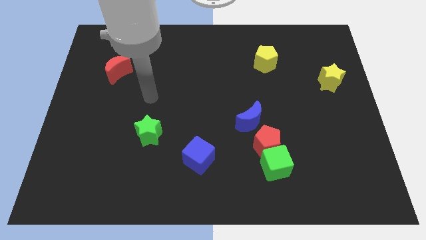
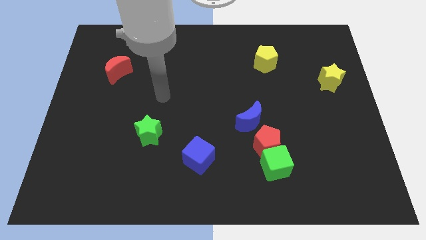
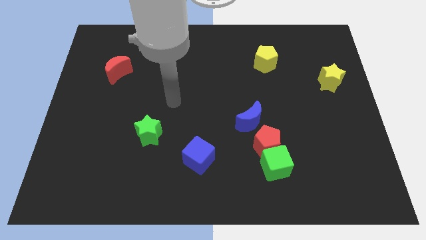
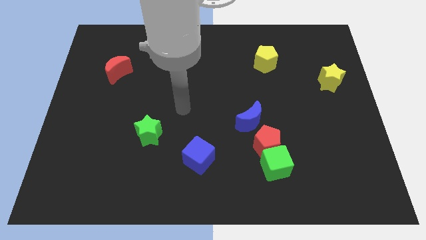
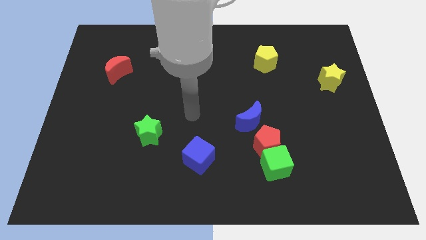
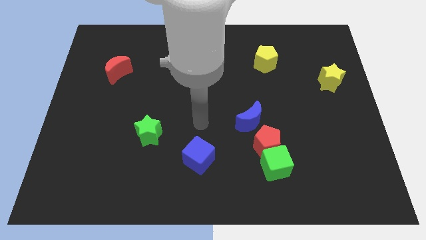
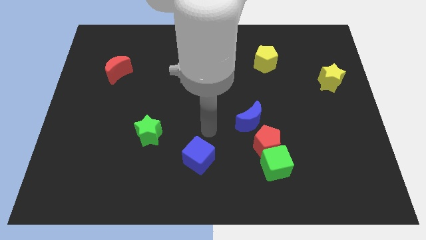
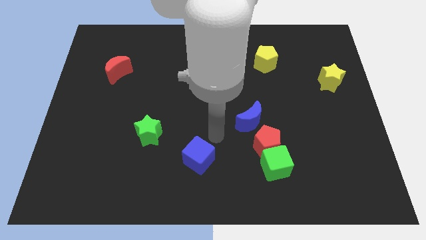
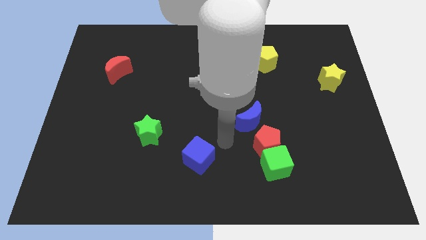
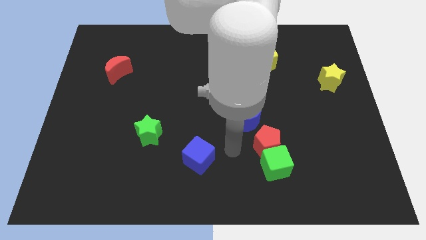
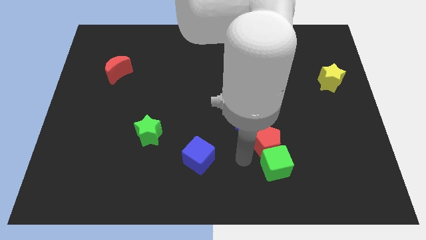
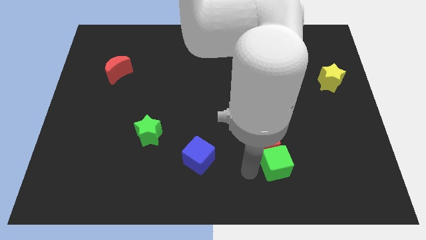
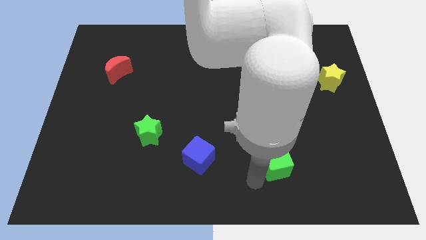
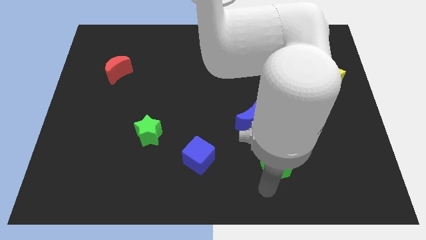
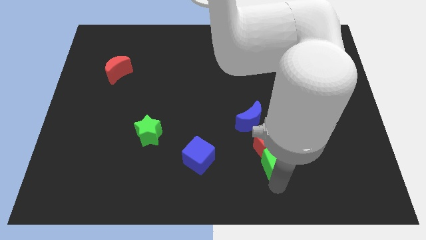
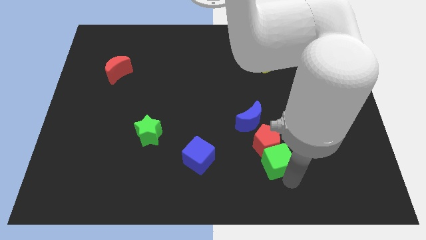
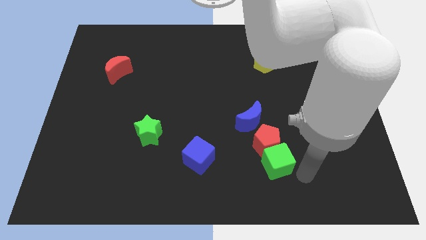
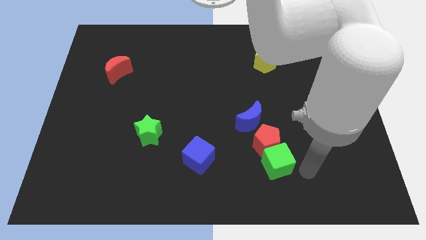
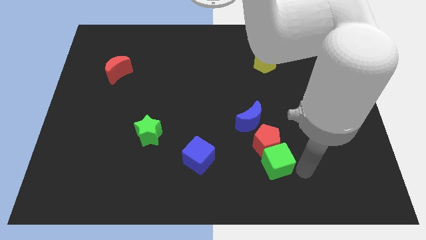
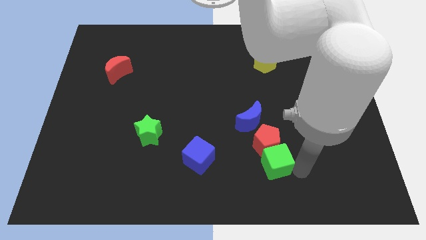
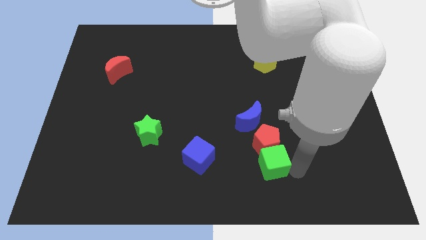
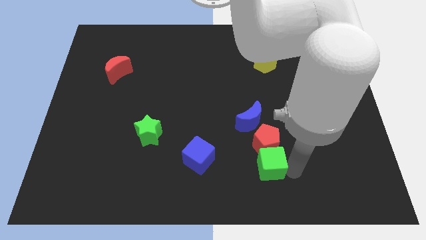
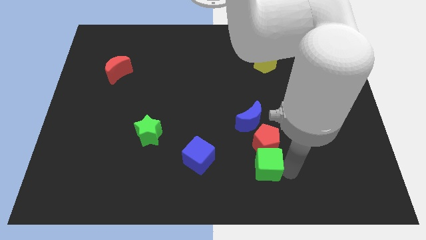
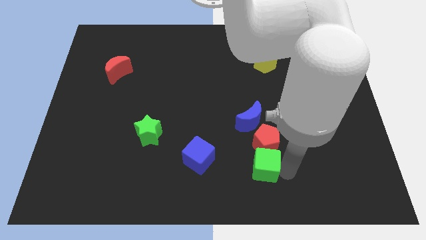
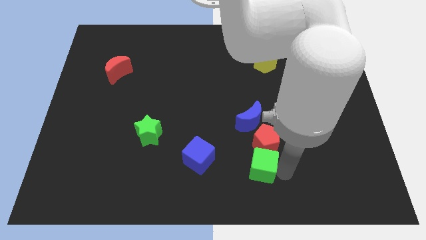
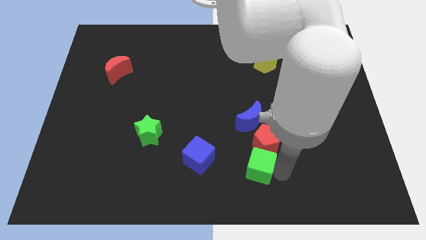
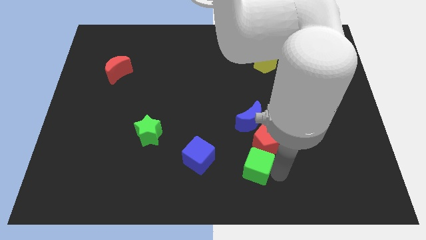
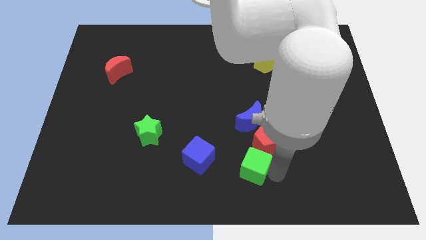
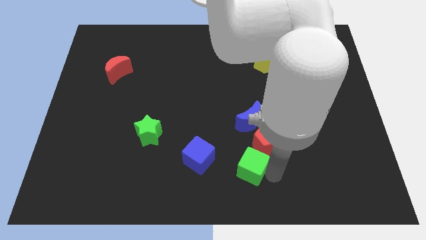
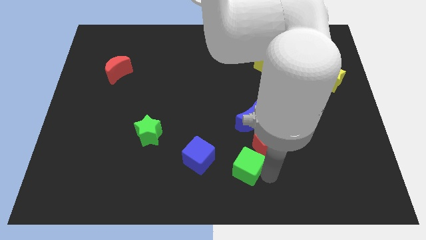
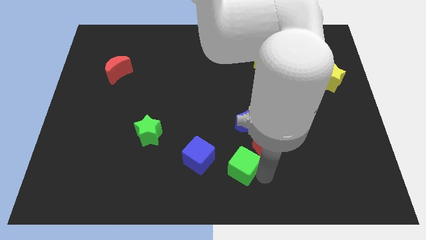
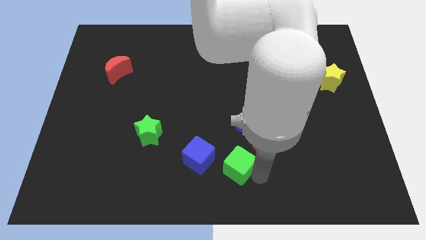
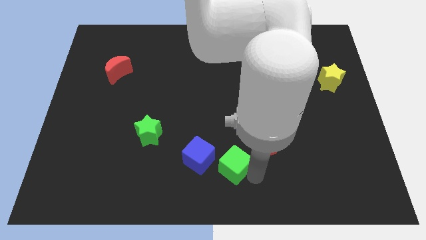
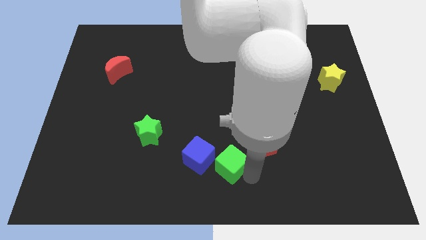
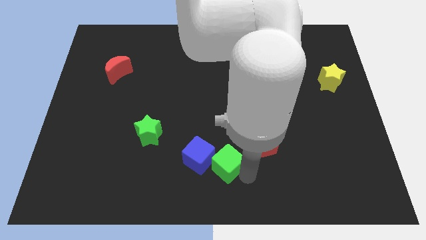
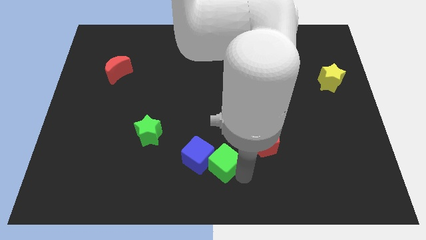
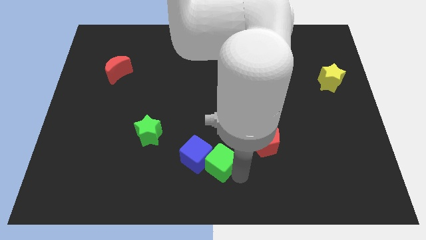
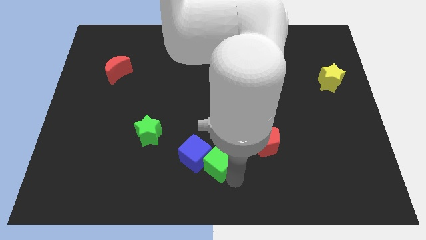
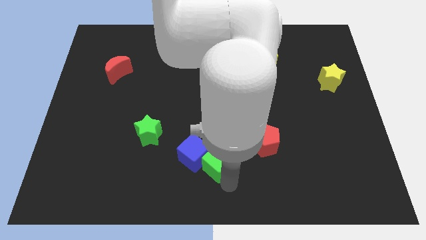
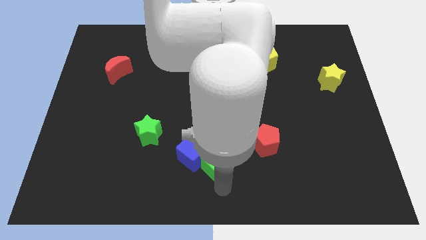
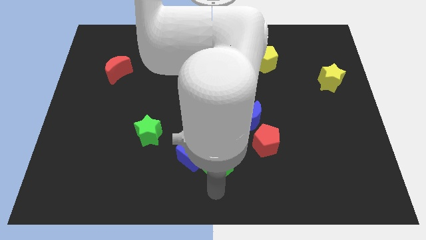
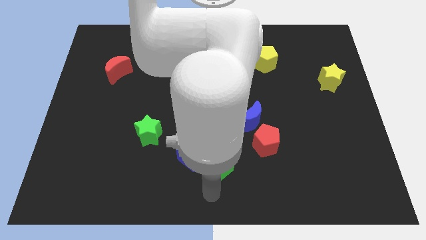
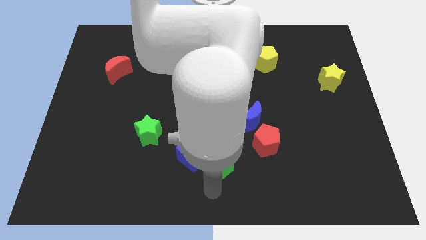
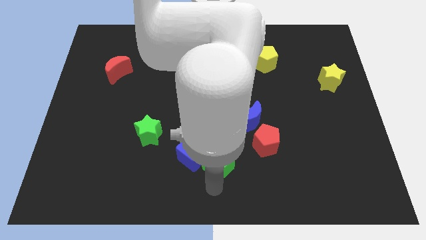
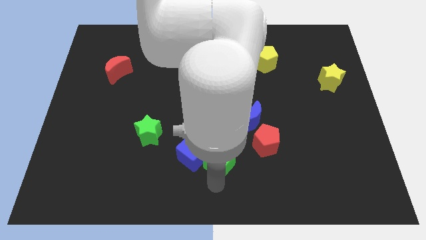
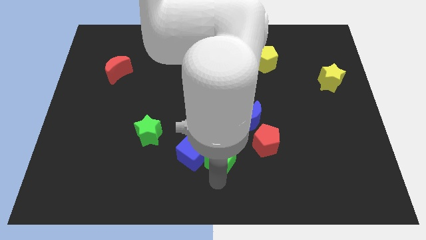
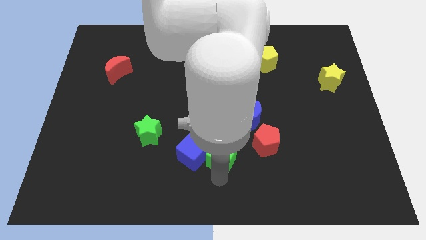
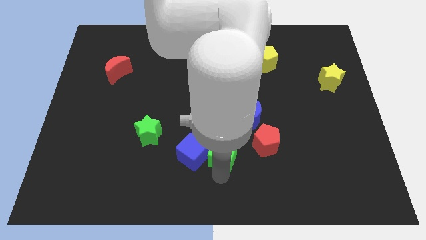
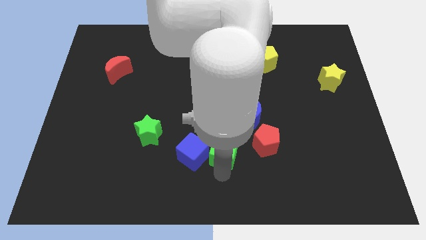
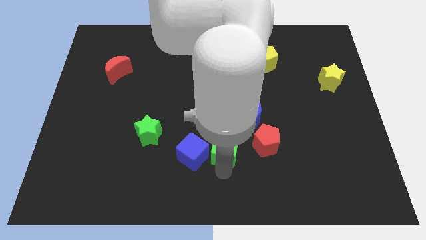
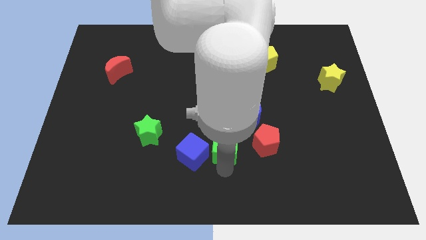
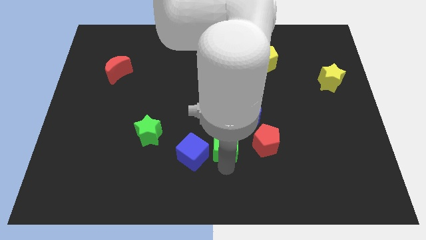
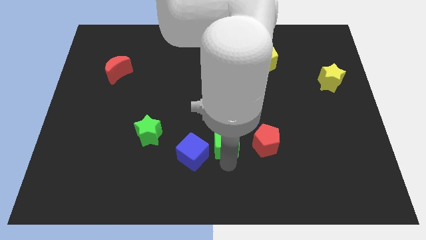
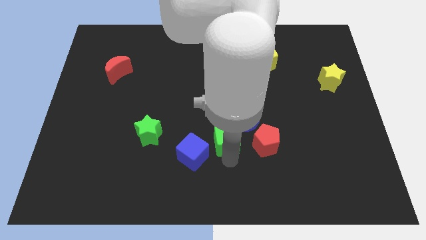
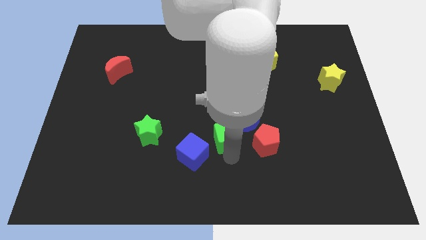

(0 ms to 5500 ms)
put the green cube left of the blue moon

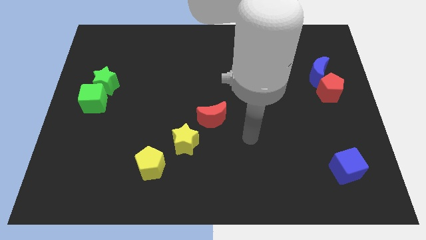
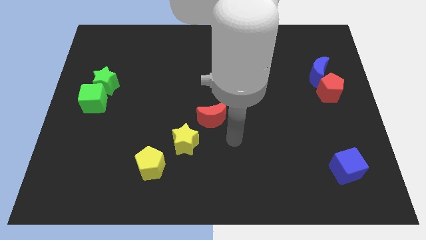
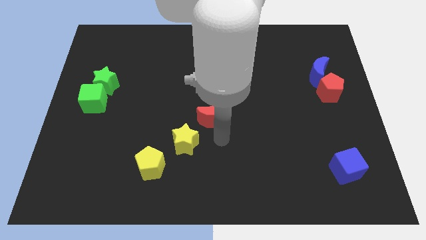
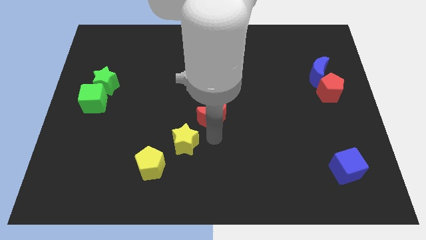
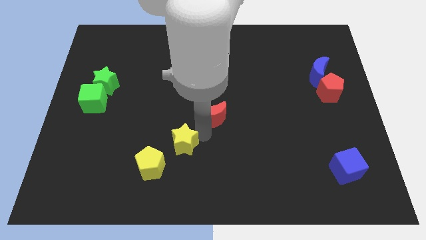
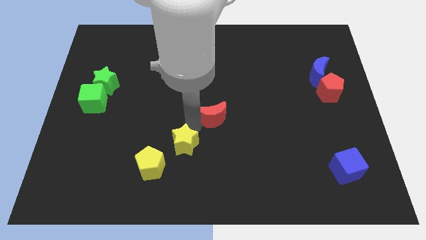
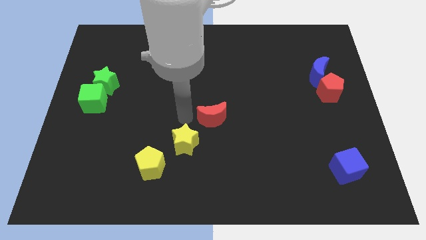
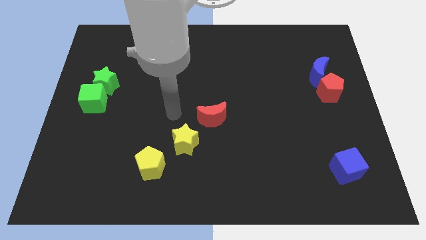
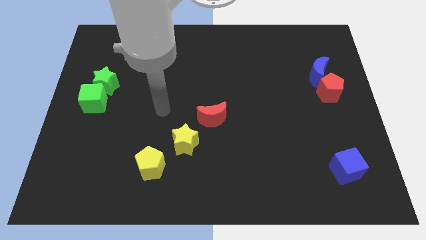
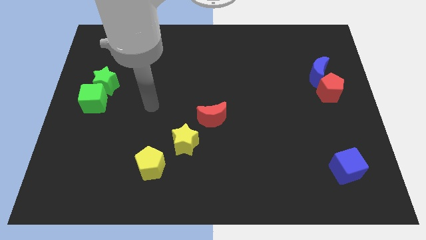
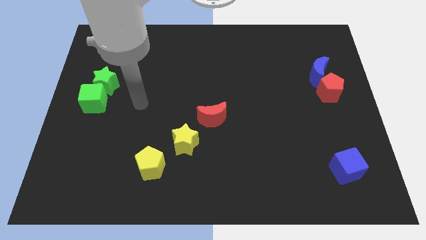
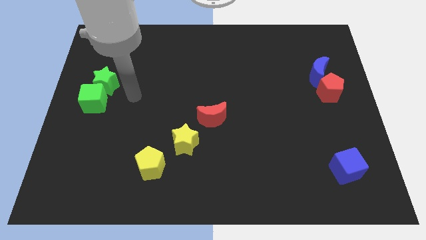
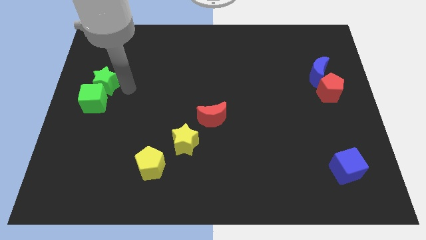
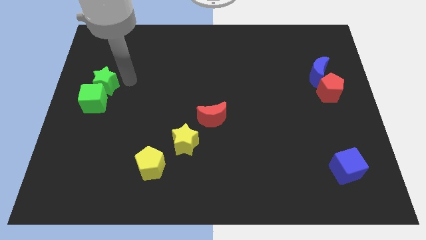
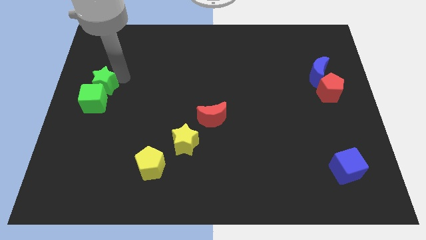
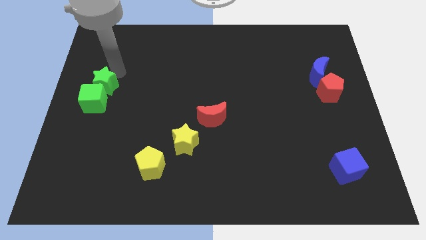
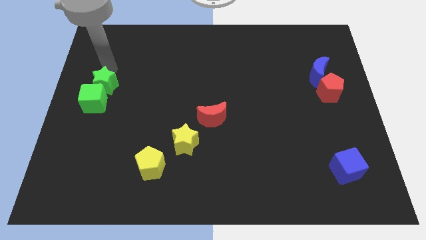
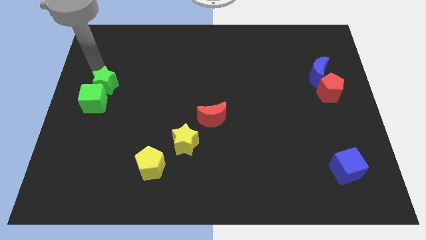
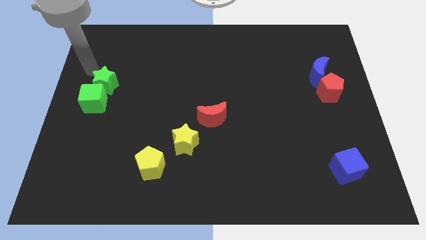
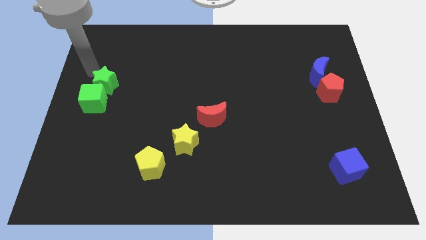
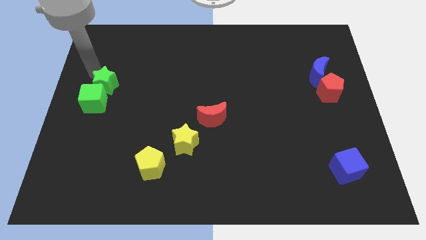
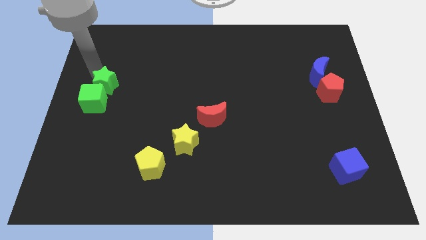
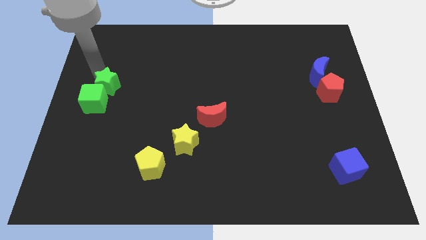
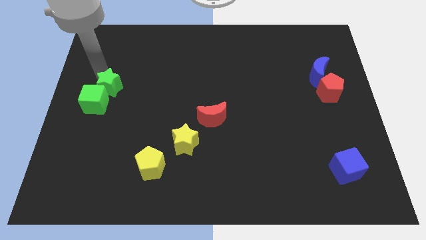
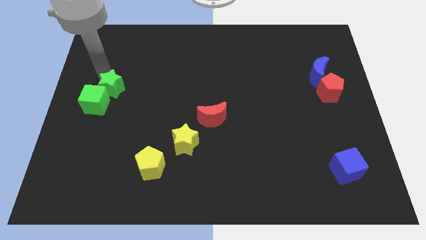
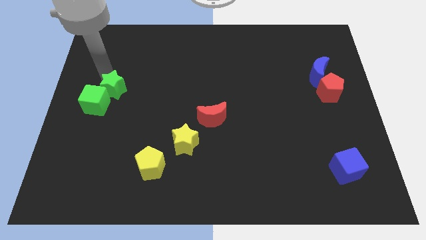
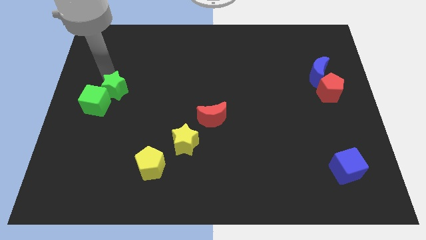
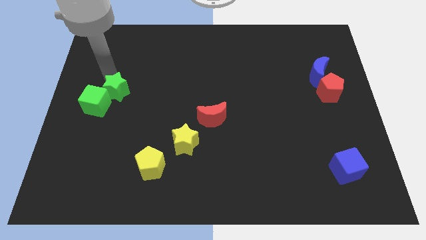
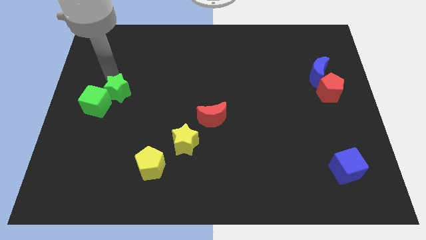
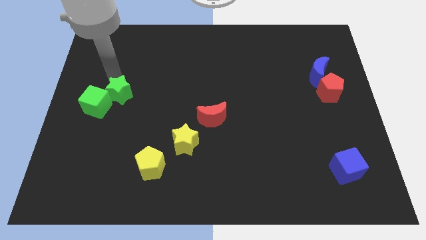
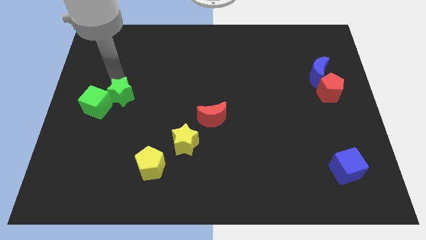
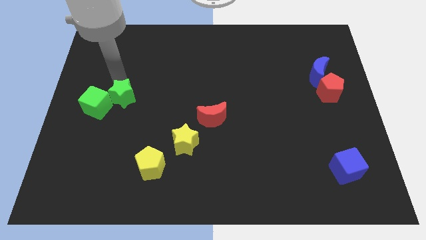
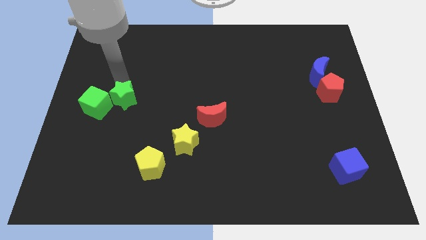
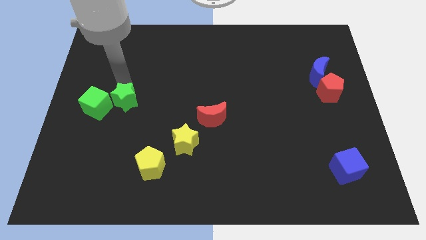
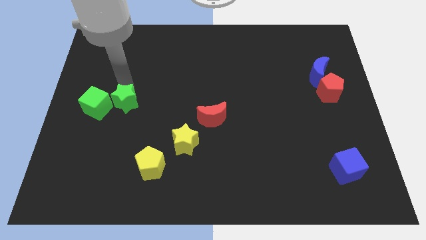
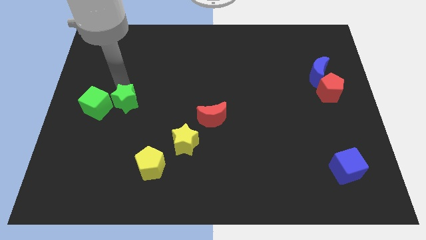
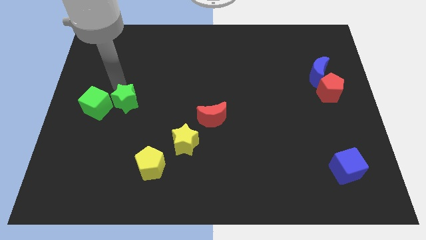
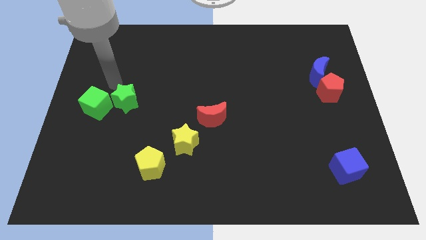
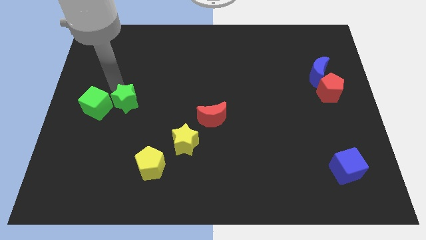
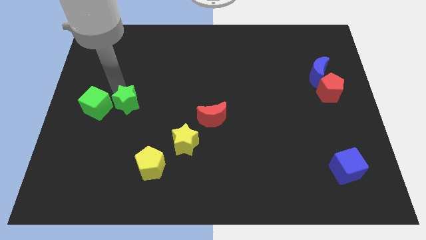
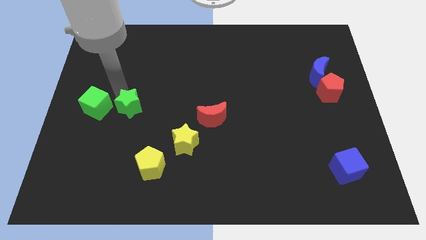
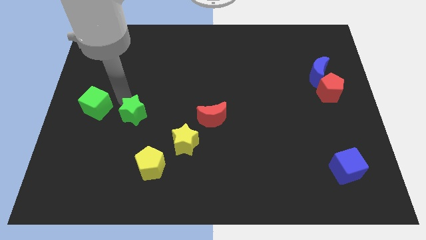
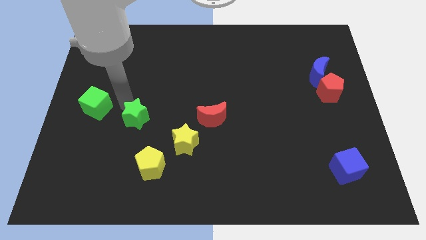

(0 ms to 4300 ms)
slide the green star to the top of the yellow pentagon
